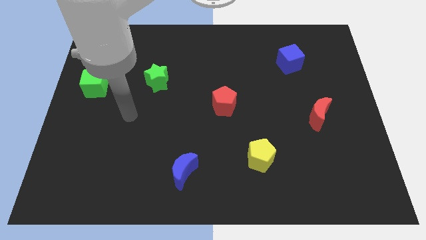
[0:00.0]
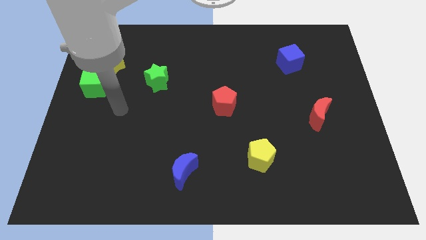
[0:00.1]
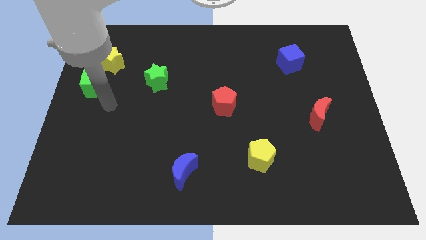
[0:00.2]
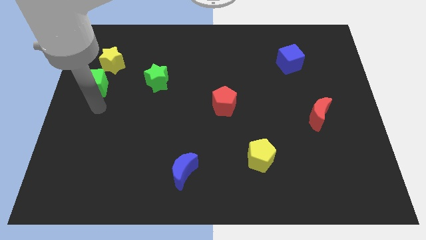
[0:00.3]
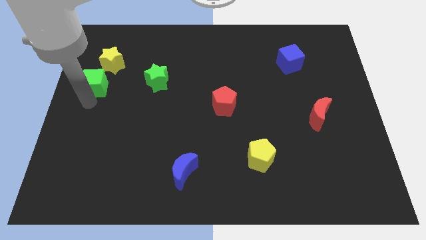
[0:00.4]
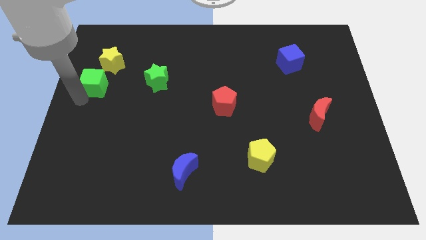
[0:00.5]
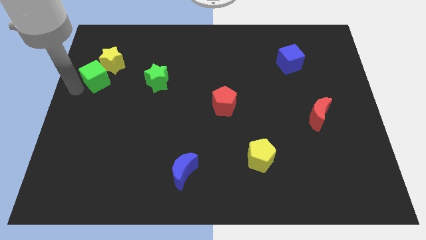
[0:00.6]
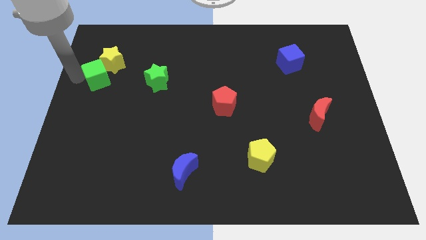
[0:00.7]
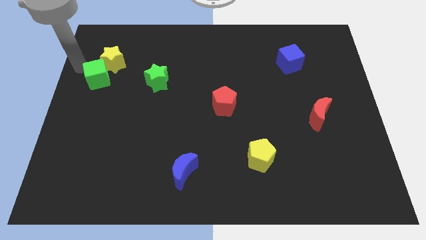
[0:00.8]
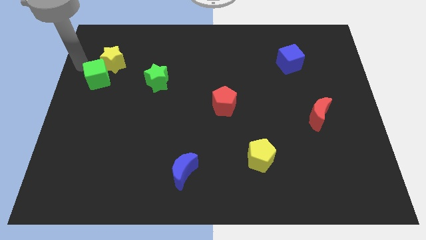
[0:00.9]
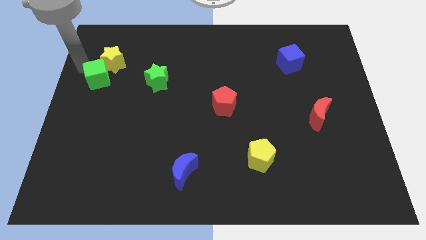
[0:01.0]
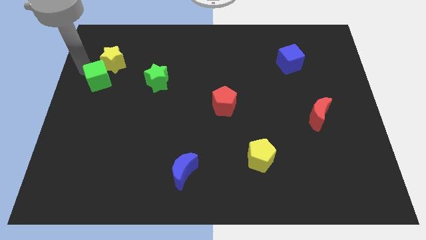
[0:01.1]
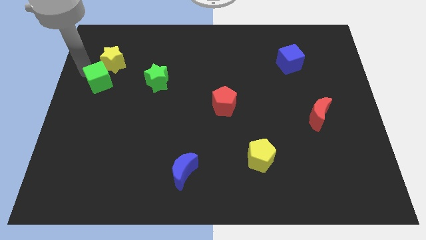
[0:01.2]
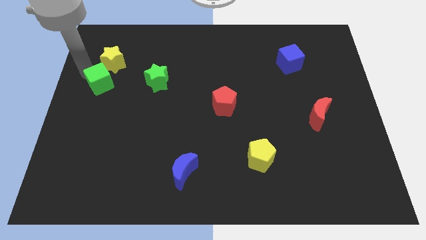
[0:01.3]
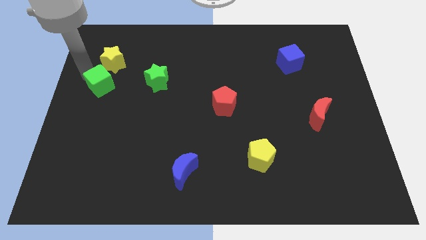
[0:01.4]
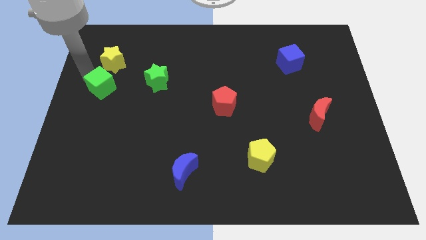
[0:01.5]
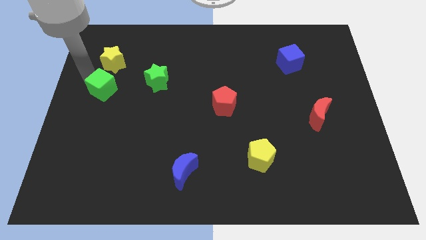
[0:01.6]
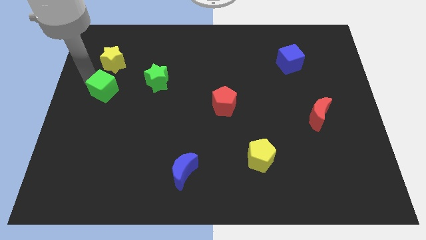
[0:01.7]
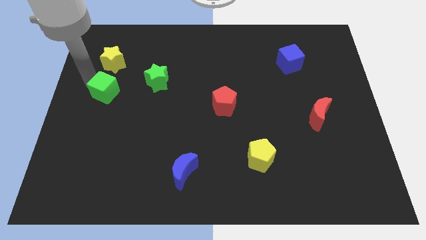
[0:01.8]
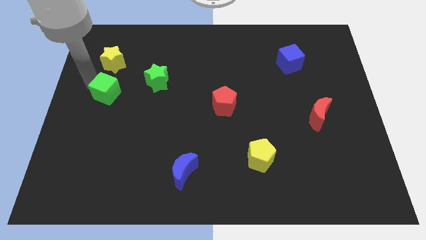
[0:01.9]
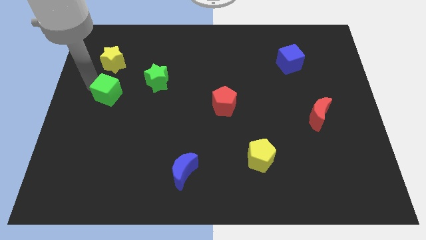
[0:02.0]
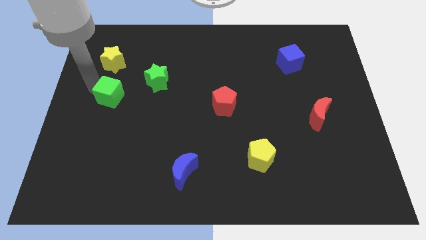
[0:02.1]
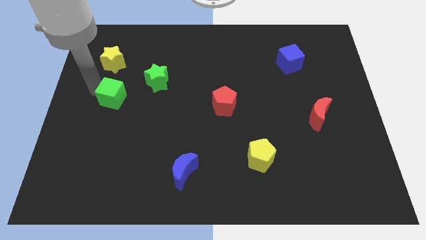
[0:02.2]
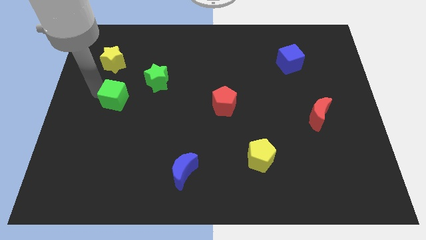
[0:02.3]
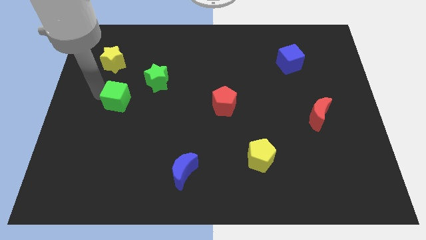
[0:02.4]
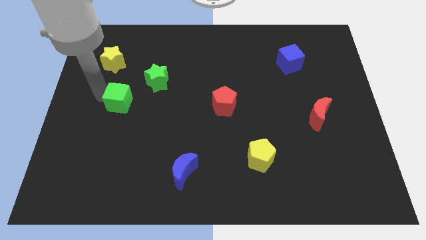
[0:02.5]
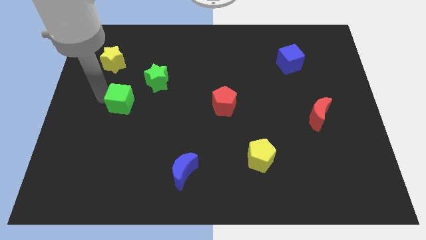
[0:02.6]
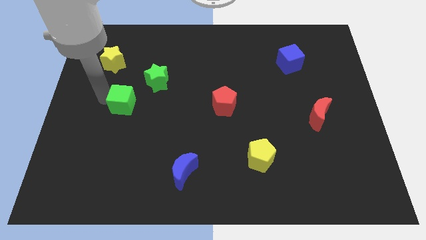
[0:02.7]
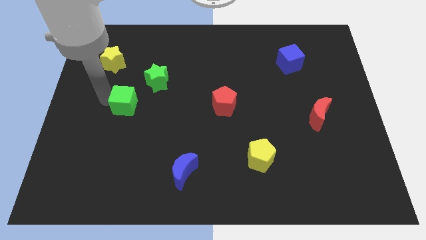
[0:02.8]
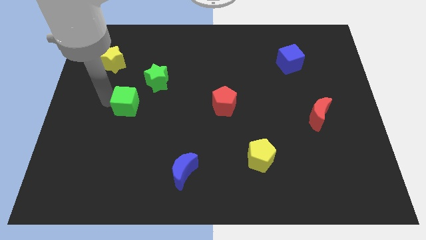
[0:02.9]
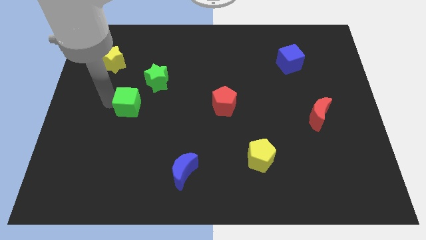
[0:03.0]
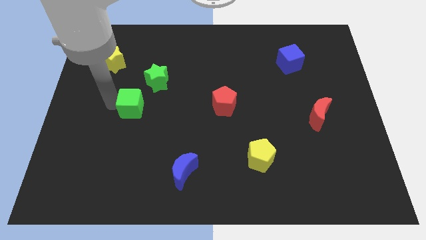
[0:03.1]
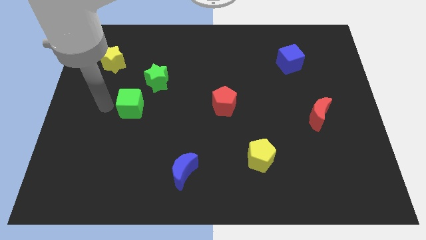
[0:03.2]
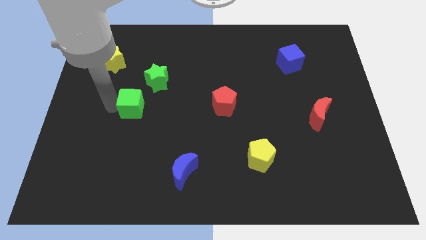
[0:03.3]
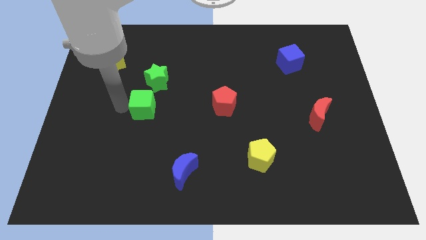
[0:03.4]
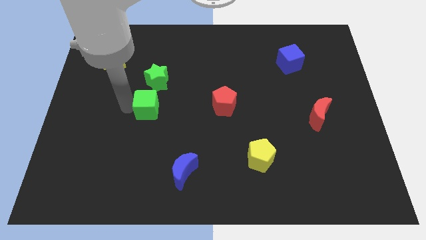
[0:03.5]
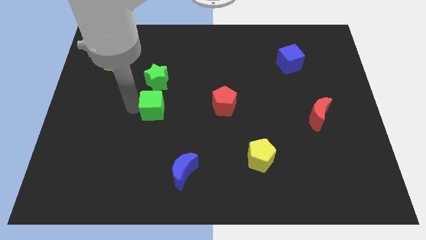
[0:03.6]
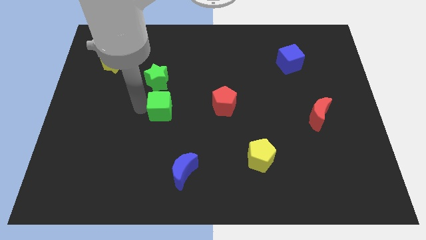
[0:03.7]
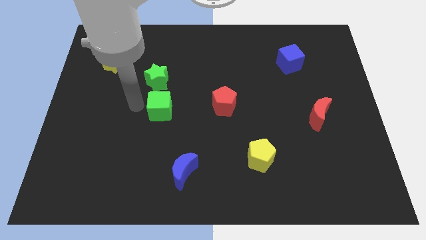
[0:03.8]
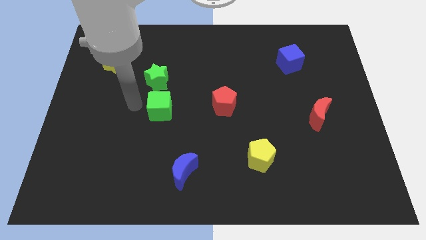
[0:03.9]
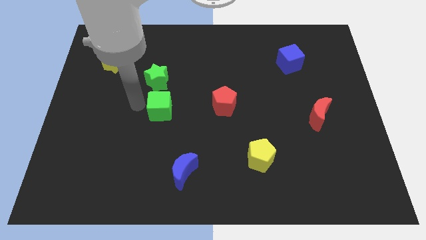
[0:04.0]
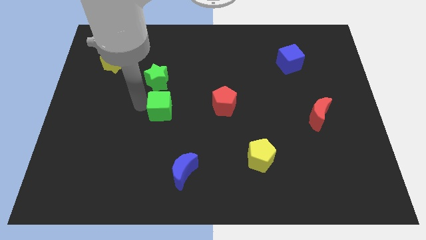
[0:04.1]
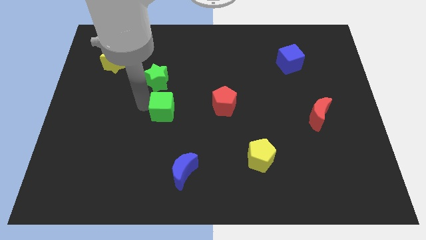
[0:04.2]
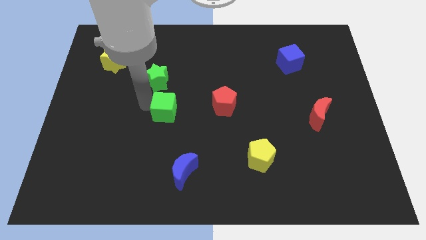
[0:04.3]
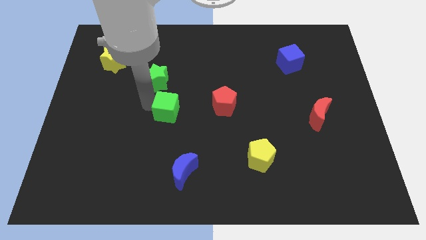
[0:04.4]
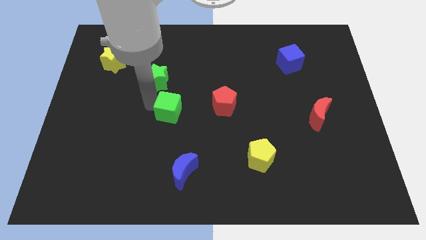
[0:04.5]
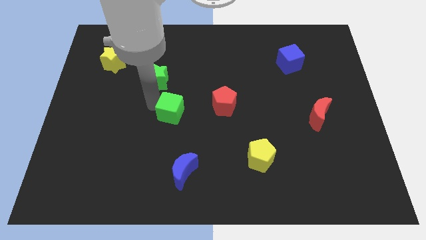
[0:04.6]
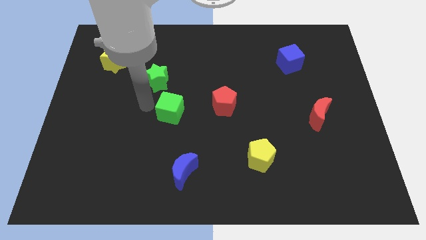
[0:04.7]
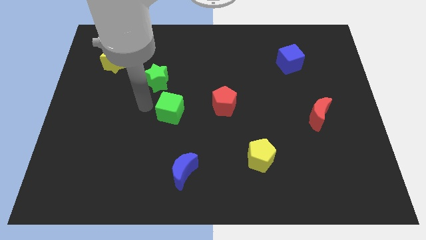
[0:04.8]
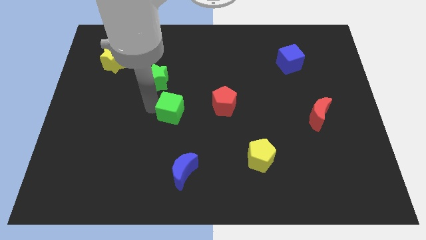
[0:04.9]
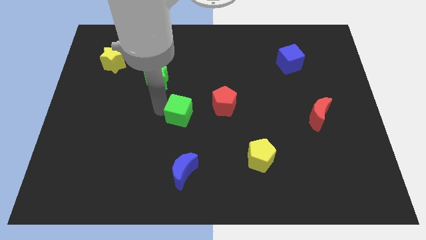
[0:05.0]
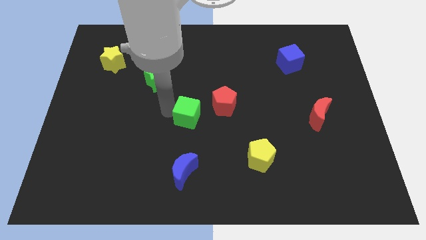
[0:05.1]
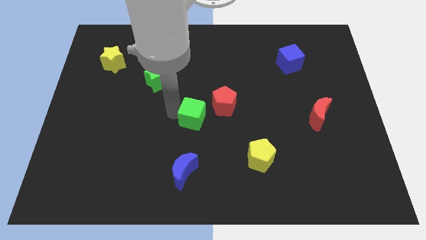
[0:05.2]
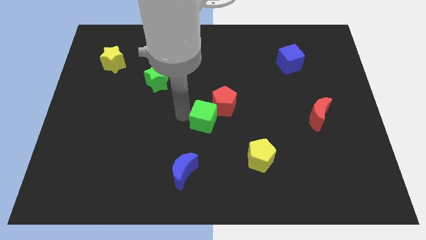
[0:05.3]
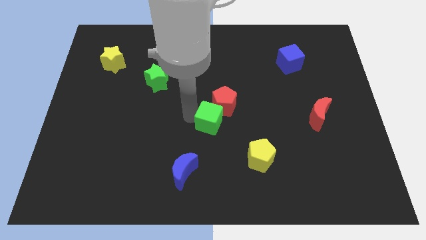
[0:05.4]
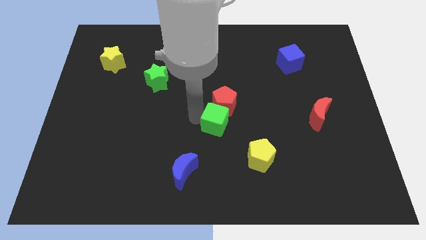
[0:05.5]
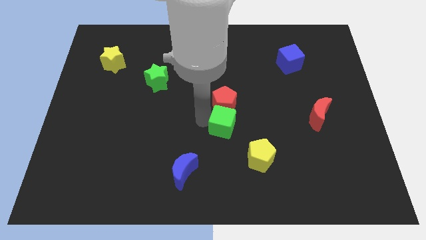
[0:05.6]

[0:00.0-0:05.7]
move the green cube diagonally down and to the right of the red pentagon

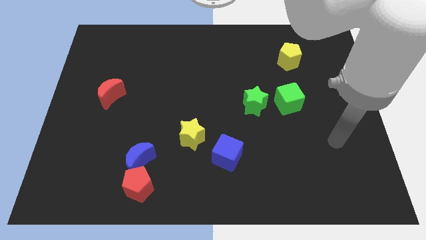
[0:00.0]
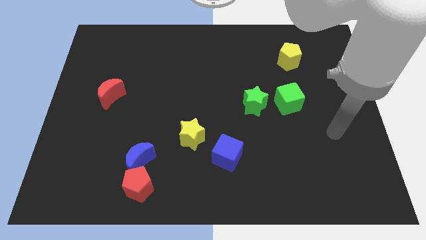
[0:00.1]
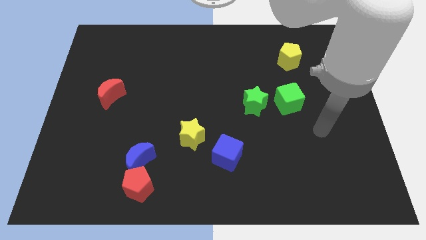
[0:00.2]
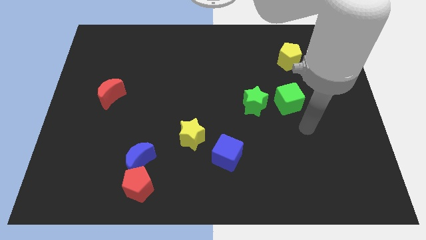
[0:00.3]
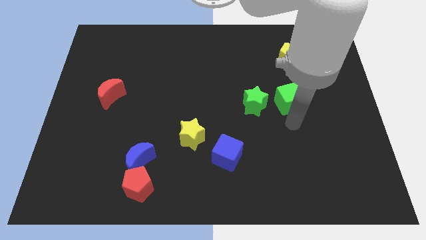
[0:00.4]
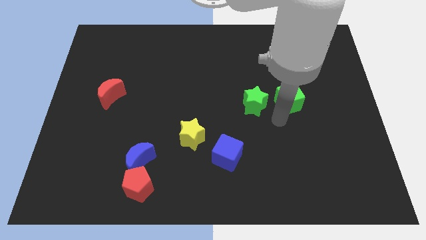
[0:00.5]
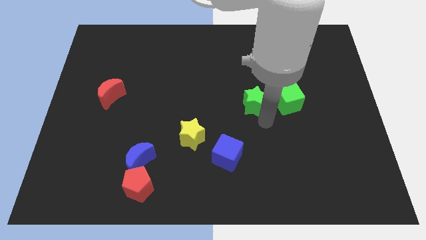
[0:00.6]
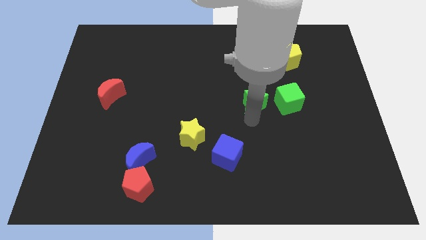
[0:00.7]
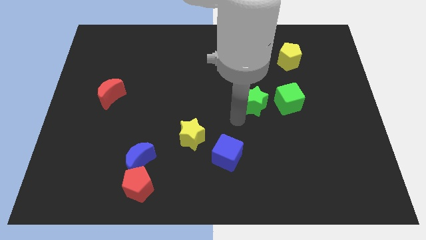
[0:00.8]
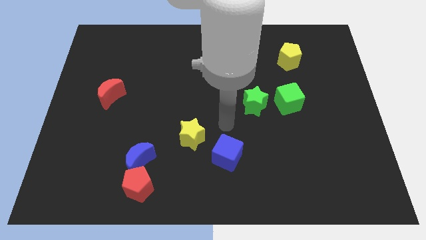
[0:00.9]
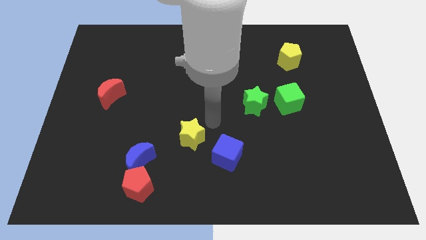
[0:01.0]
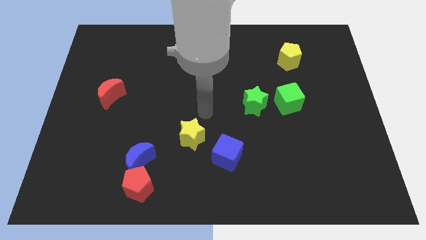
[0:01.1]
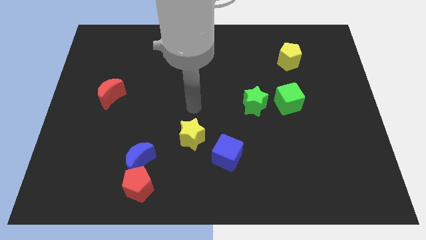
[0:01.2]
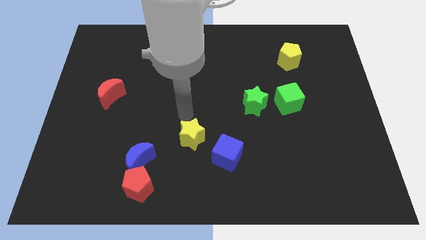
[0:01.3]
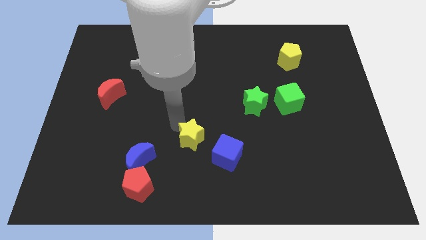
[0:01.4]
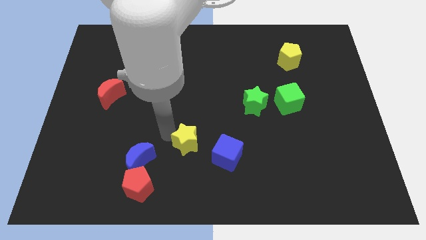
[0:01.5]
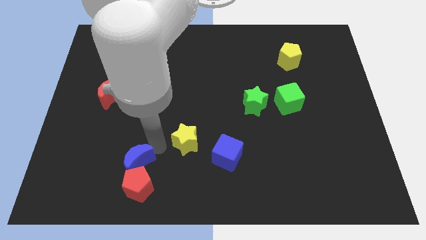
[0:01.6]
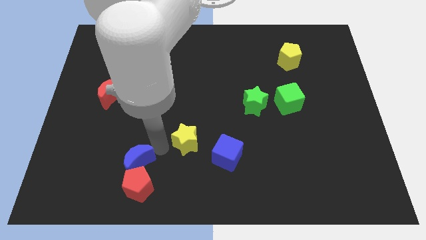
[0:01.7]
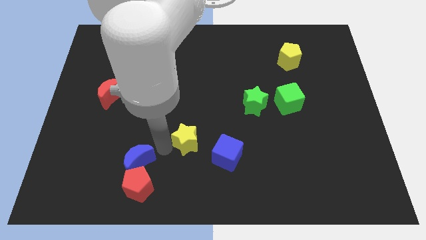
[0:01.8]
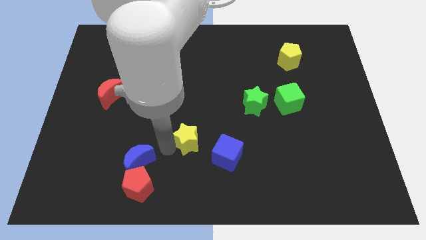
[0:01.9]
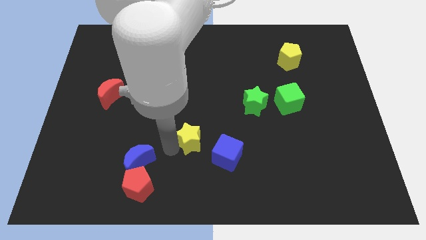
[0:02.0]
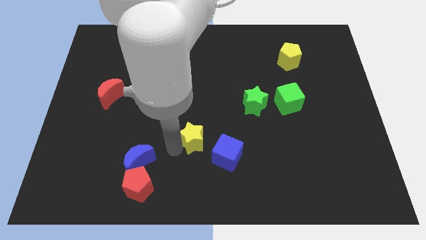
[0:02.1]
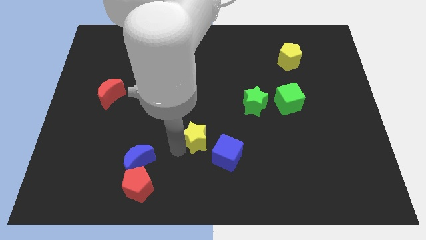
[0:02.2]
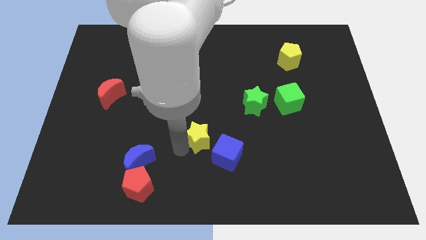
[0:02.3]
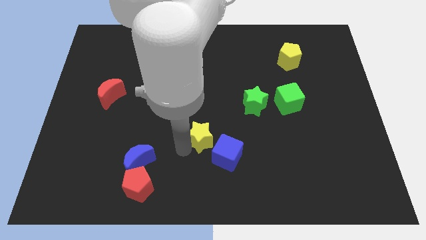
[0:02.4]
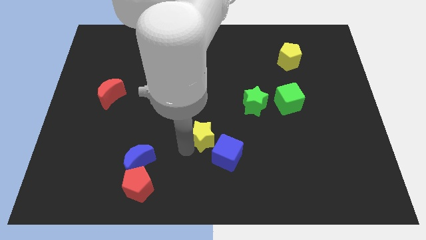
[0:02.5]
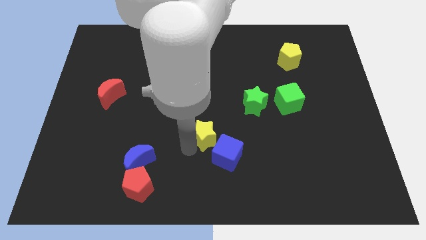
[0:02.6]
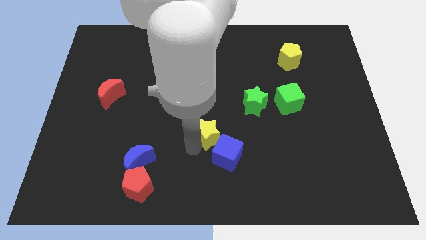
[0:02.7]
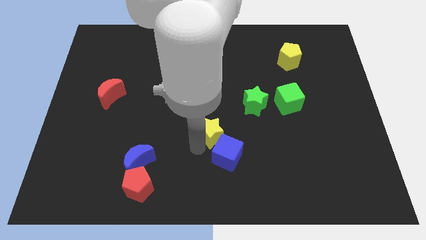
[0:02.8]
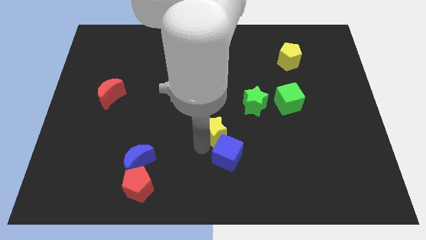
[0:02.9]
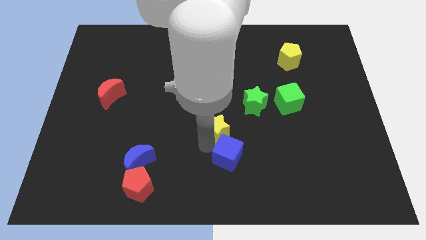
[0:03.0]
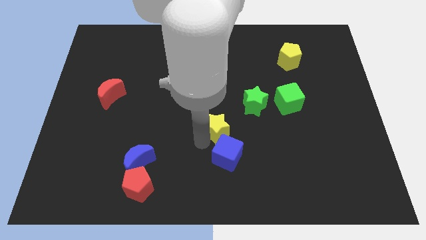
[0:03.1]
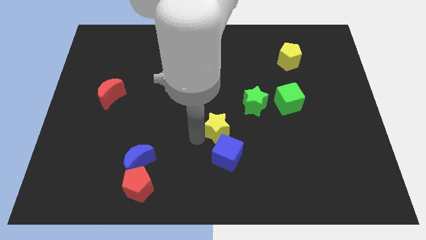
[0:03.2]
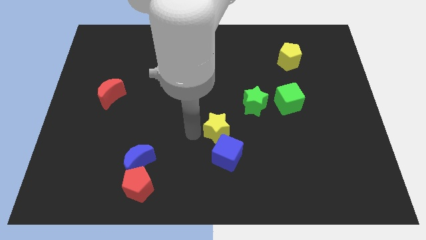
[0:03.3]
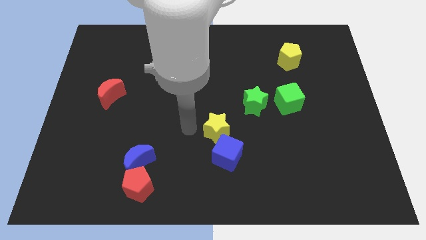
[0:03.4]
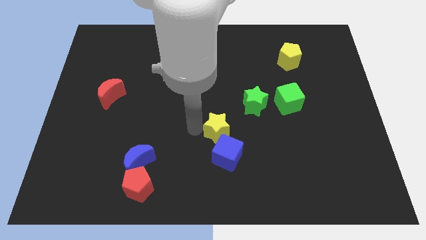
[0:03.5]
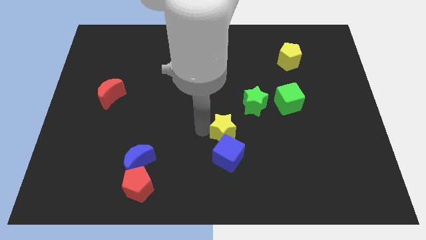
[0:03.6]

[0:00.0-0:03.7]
move the yellow star to the top right side of the blue cube
